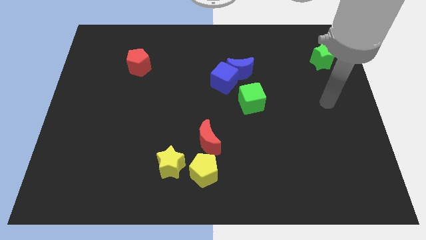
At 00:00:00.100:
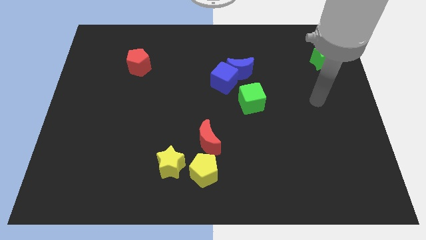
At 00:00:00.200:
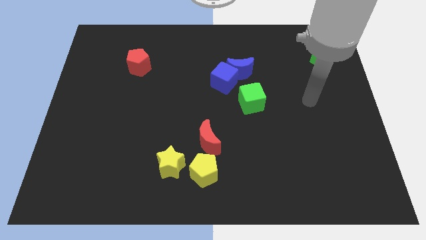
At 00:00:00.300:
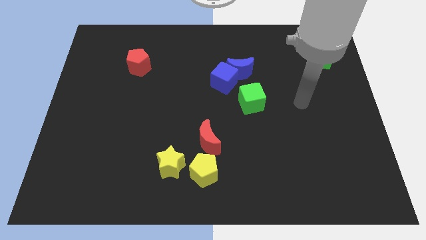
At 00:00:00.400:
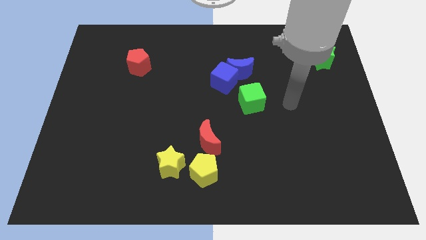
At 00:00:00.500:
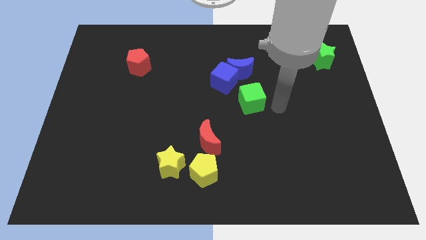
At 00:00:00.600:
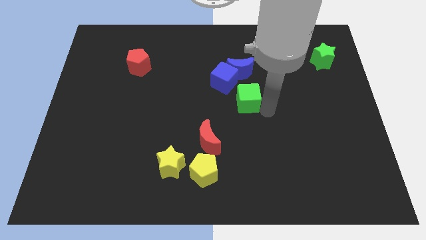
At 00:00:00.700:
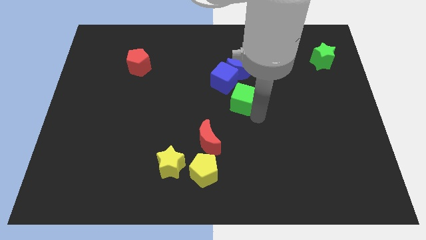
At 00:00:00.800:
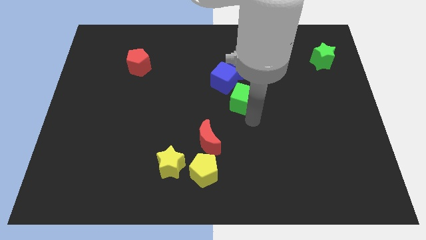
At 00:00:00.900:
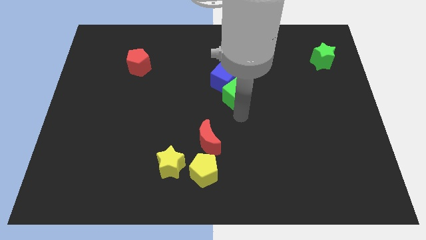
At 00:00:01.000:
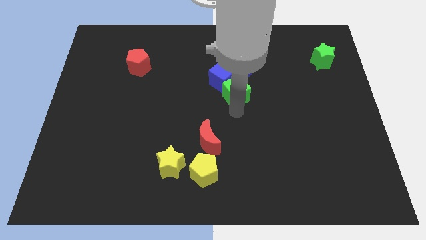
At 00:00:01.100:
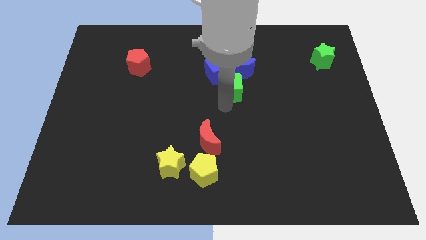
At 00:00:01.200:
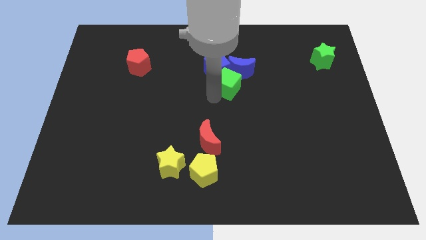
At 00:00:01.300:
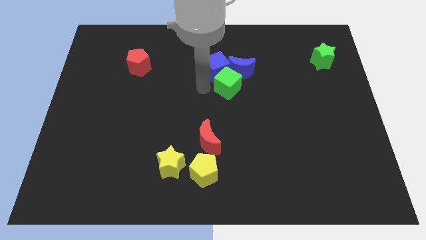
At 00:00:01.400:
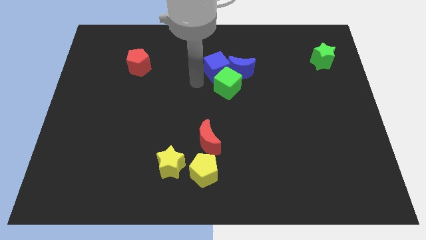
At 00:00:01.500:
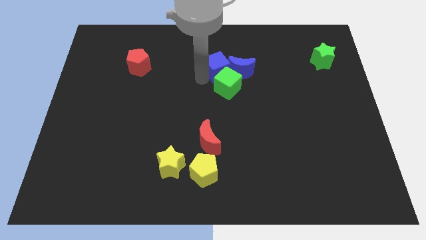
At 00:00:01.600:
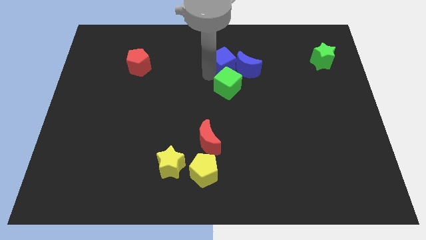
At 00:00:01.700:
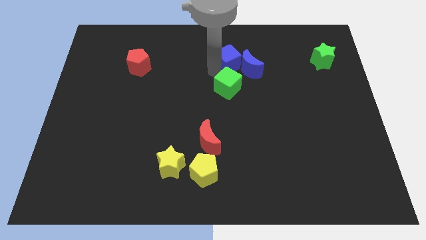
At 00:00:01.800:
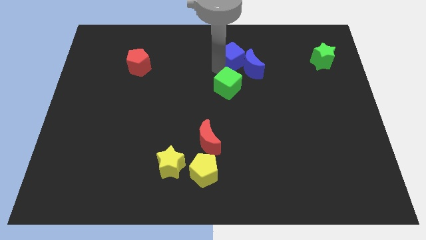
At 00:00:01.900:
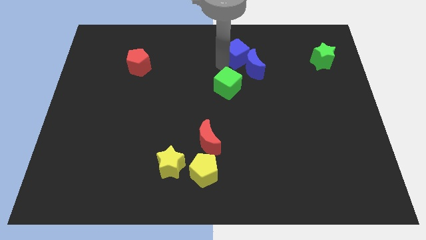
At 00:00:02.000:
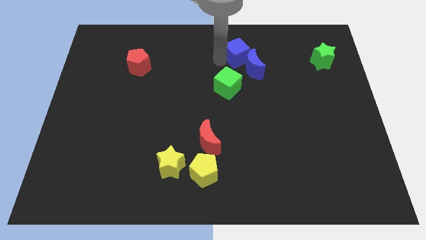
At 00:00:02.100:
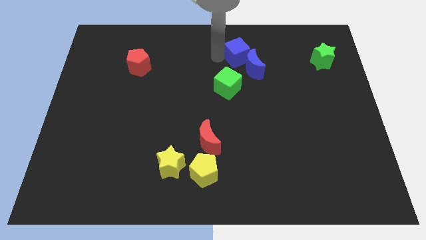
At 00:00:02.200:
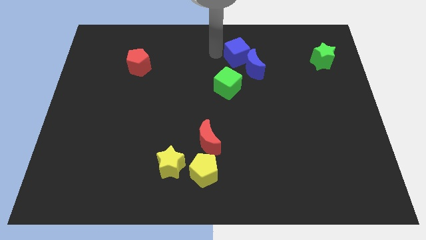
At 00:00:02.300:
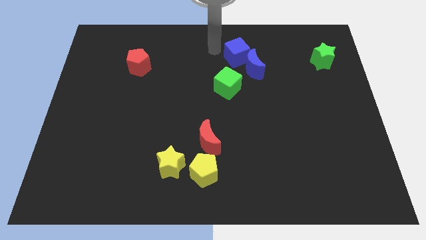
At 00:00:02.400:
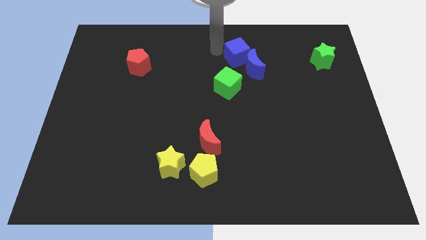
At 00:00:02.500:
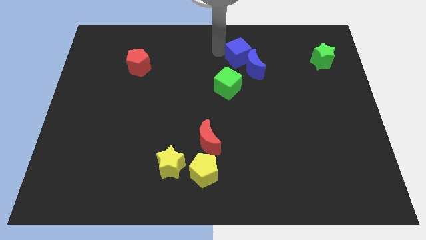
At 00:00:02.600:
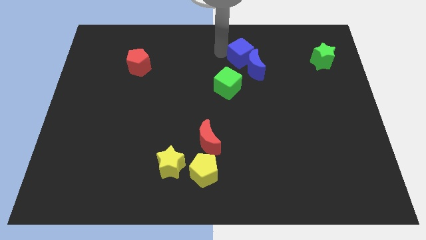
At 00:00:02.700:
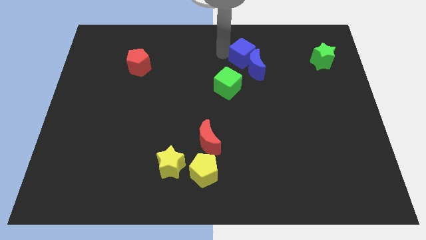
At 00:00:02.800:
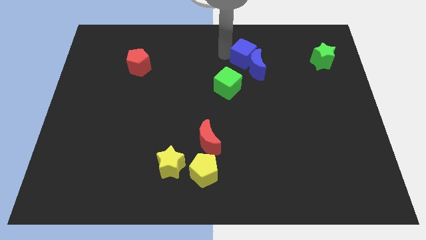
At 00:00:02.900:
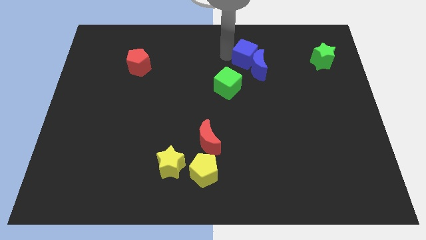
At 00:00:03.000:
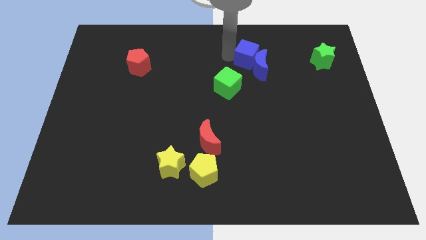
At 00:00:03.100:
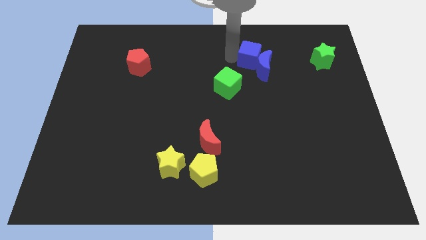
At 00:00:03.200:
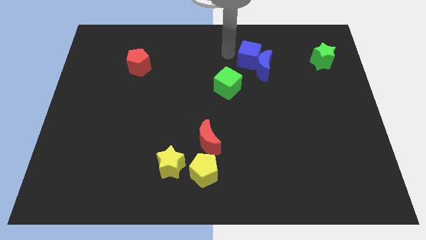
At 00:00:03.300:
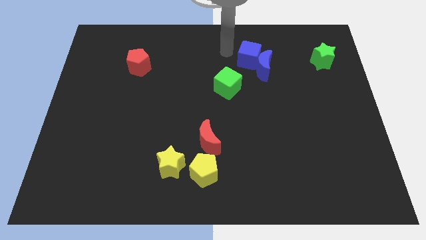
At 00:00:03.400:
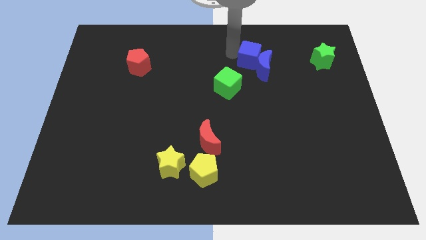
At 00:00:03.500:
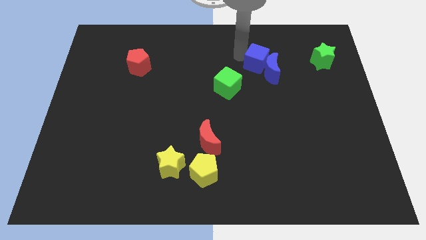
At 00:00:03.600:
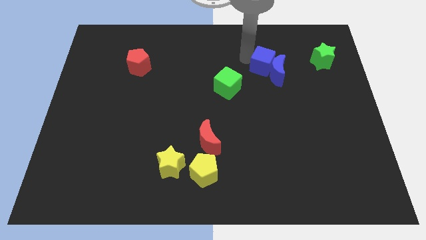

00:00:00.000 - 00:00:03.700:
slightly push the blue cube right

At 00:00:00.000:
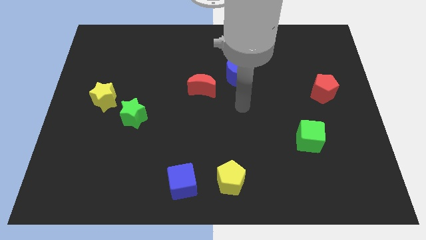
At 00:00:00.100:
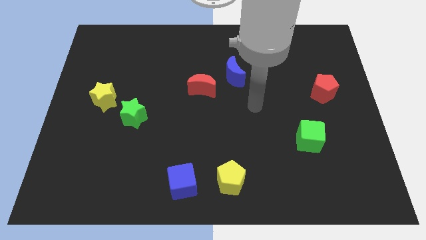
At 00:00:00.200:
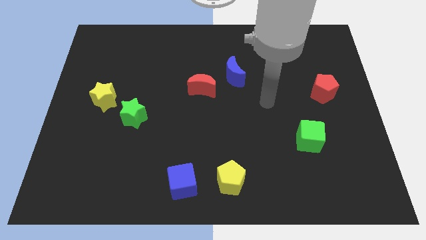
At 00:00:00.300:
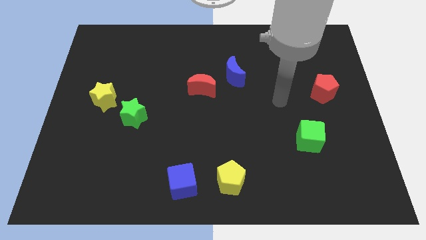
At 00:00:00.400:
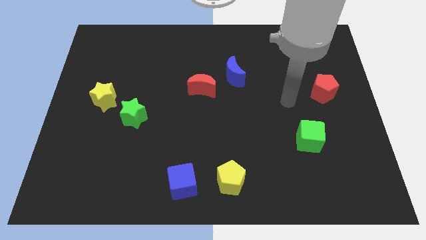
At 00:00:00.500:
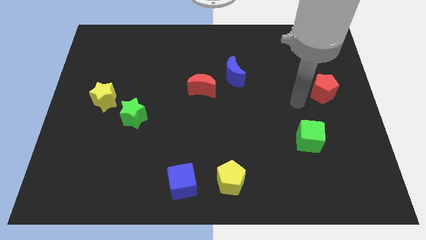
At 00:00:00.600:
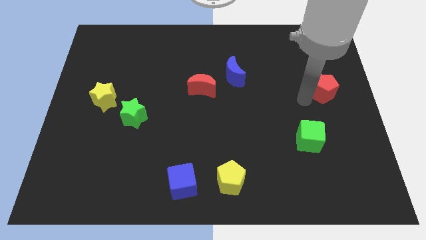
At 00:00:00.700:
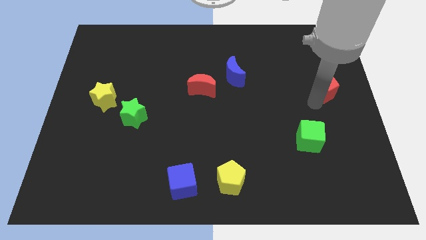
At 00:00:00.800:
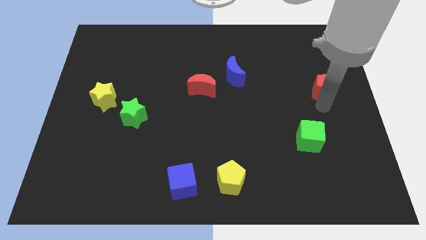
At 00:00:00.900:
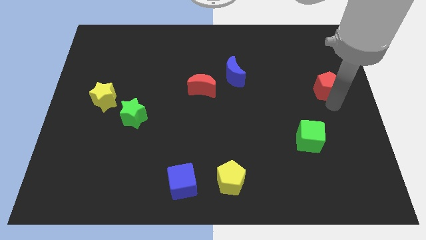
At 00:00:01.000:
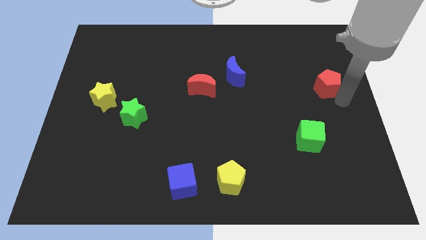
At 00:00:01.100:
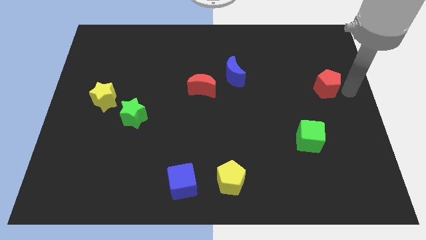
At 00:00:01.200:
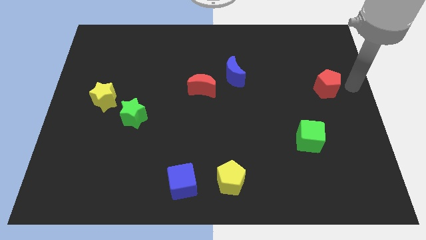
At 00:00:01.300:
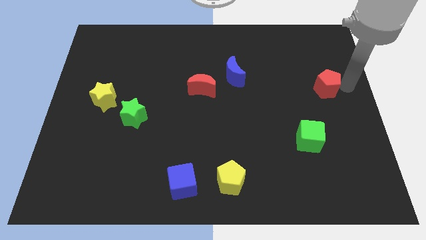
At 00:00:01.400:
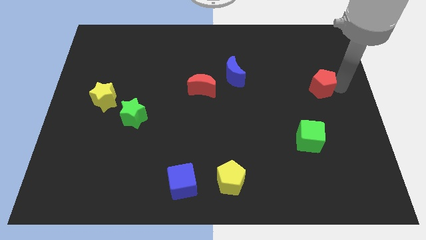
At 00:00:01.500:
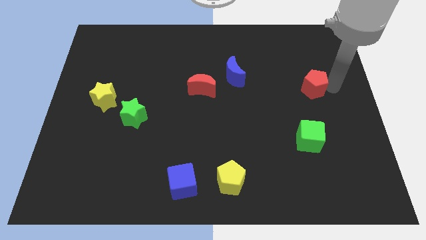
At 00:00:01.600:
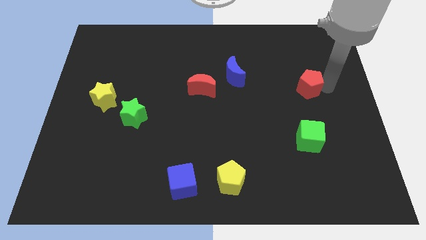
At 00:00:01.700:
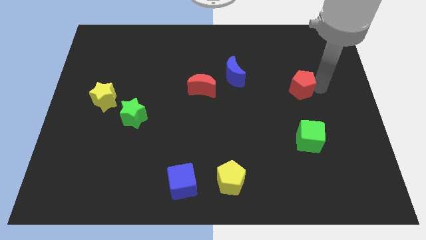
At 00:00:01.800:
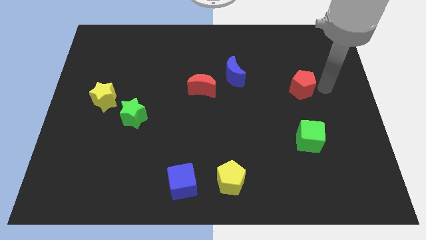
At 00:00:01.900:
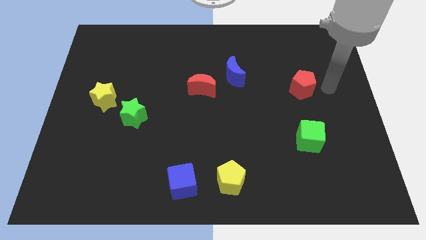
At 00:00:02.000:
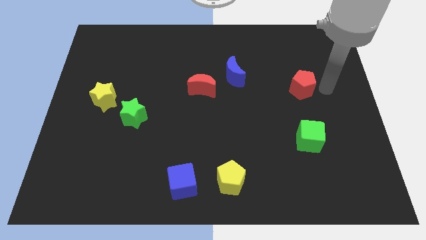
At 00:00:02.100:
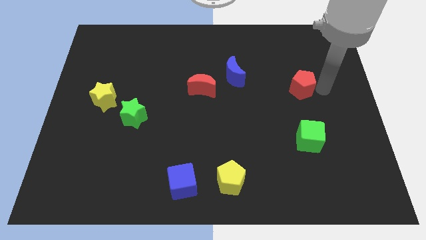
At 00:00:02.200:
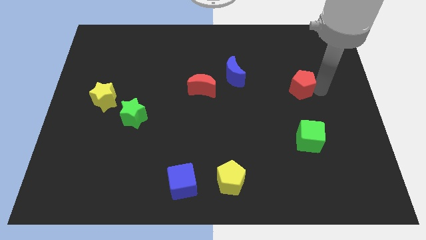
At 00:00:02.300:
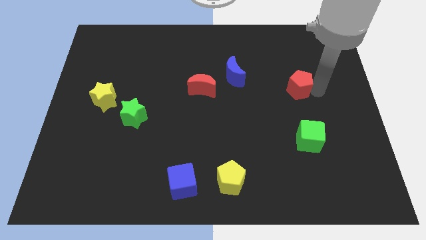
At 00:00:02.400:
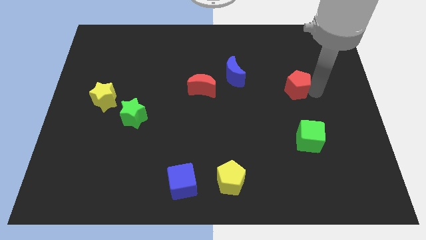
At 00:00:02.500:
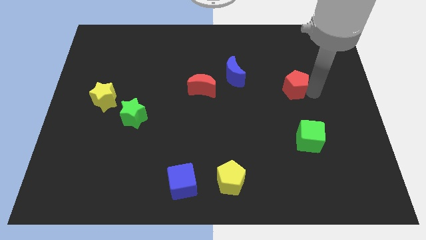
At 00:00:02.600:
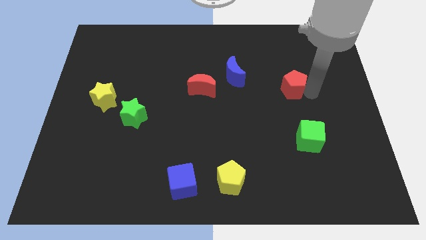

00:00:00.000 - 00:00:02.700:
move the red pentagon left a little

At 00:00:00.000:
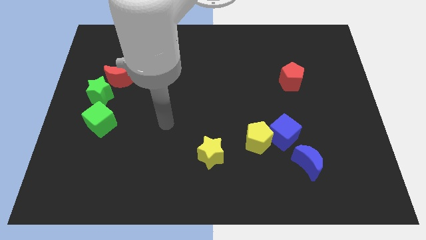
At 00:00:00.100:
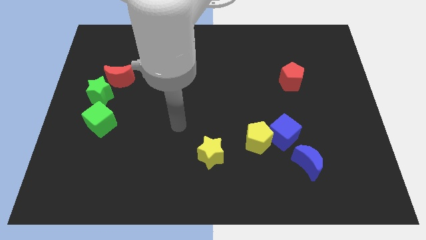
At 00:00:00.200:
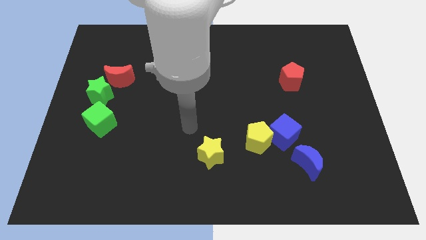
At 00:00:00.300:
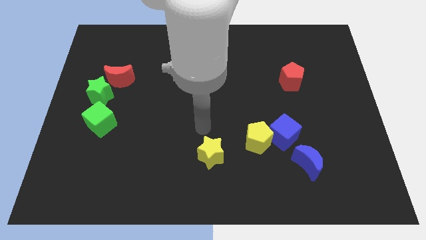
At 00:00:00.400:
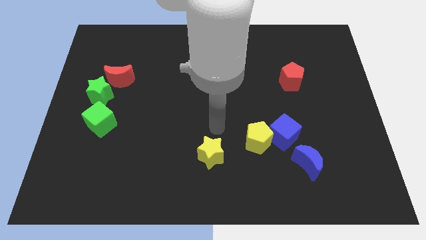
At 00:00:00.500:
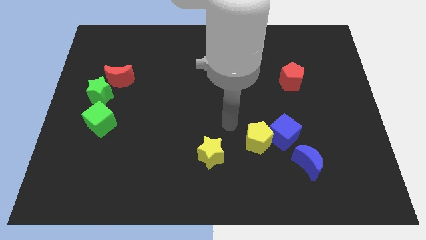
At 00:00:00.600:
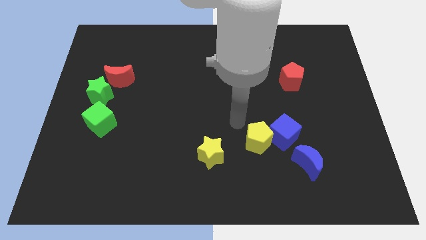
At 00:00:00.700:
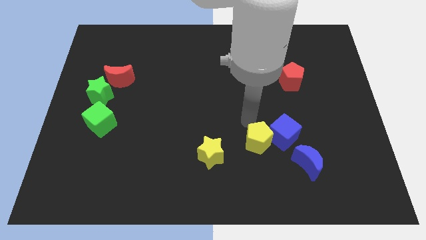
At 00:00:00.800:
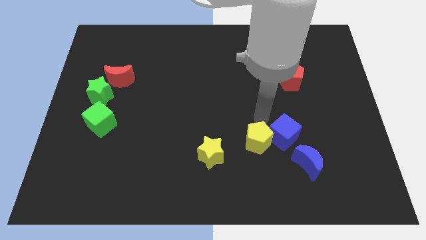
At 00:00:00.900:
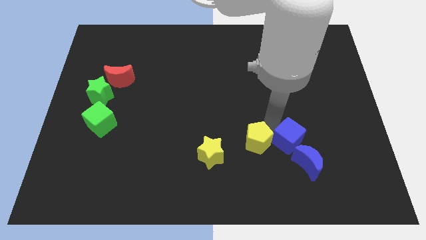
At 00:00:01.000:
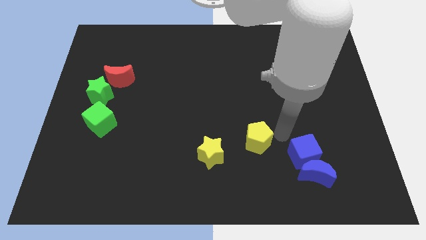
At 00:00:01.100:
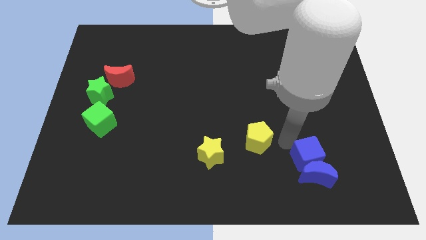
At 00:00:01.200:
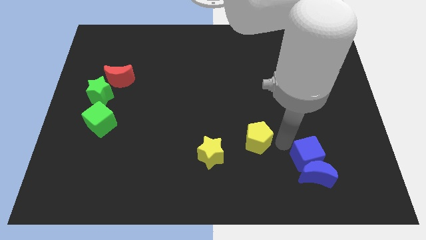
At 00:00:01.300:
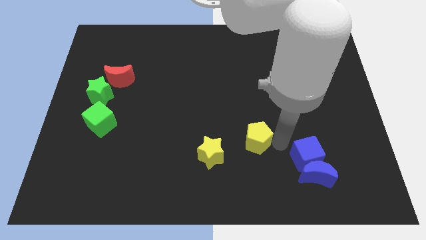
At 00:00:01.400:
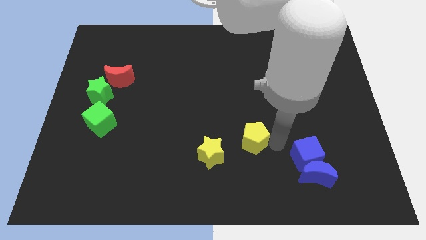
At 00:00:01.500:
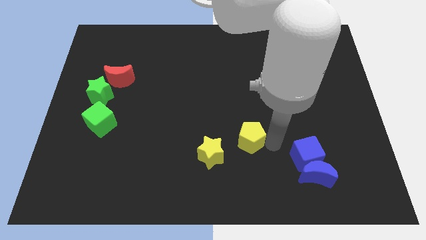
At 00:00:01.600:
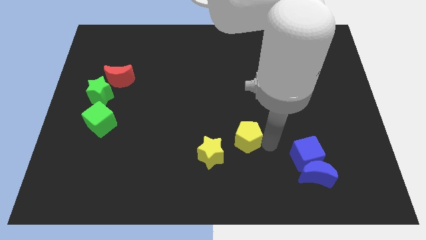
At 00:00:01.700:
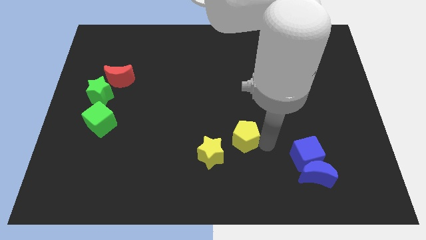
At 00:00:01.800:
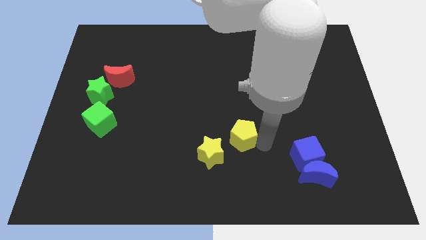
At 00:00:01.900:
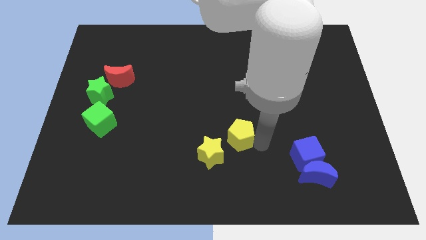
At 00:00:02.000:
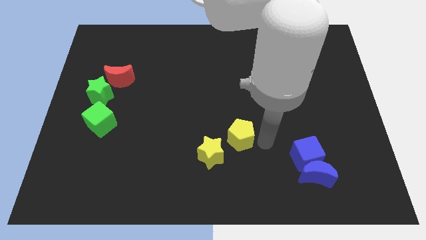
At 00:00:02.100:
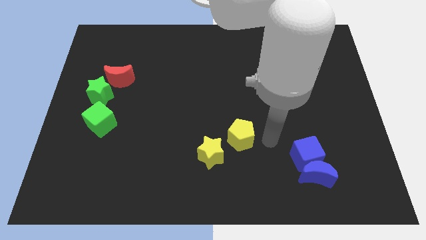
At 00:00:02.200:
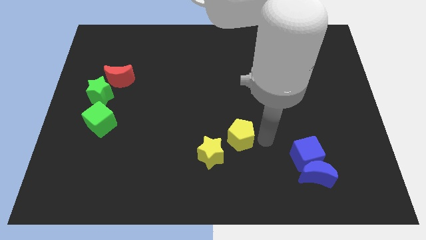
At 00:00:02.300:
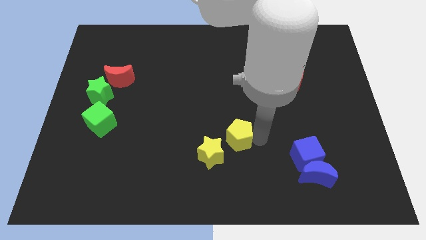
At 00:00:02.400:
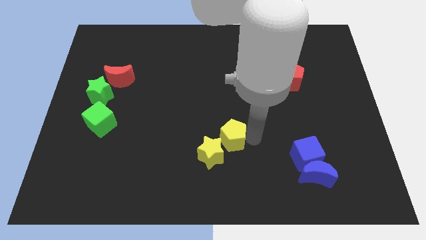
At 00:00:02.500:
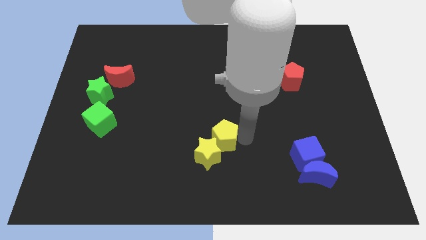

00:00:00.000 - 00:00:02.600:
push the yellow pentagon left a little bit
